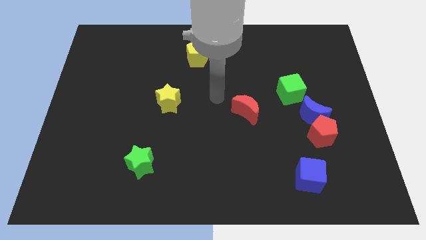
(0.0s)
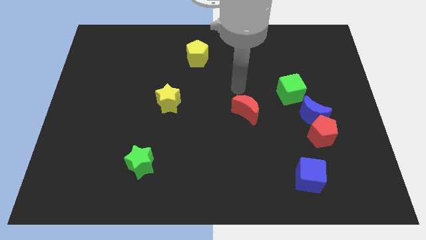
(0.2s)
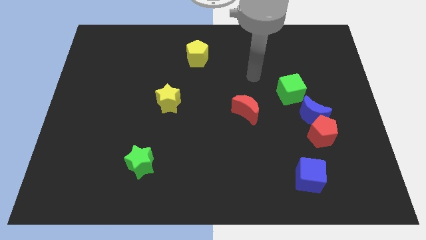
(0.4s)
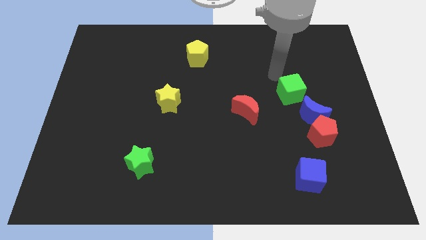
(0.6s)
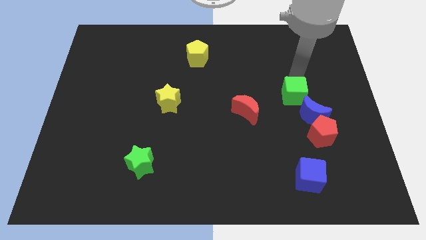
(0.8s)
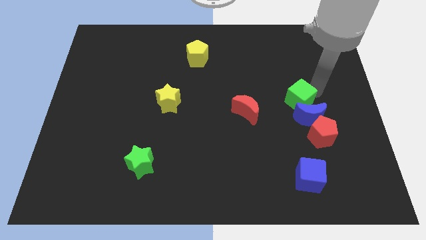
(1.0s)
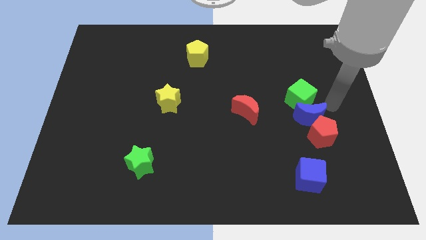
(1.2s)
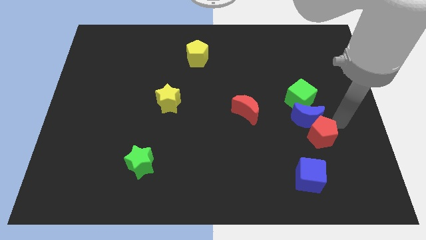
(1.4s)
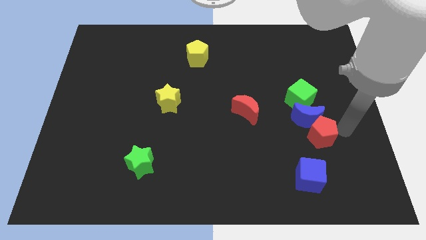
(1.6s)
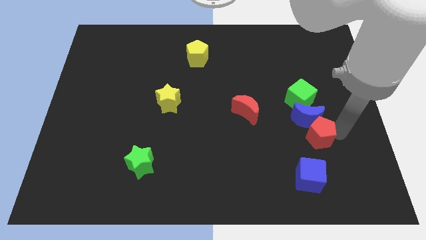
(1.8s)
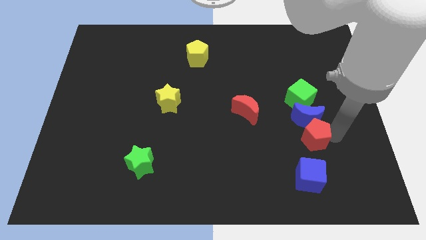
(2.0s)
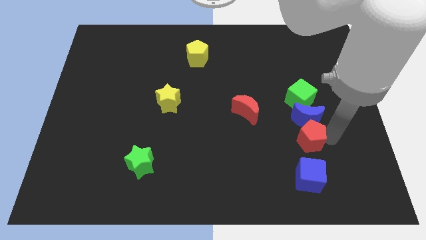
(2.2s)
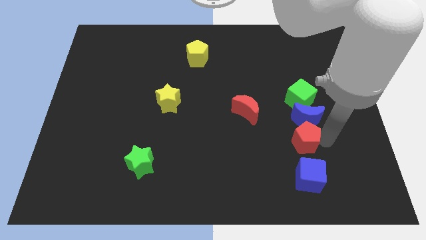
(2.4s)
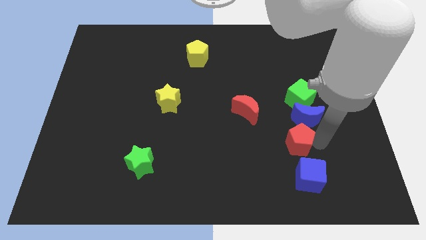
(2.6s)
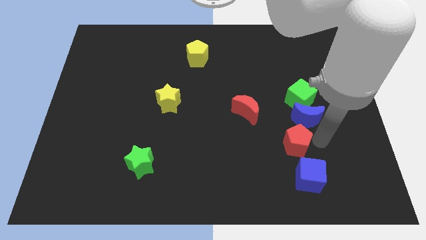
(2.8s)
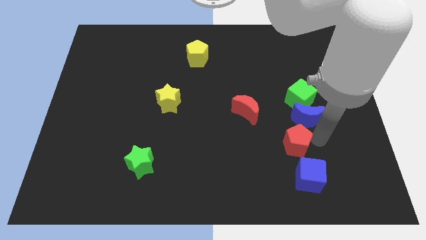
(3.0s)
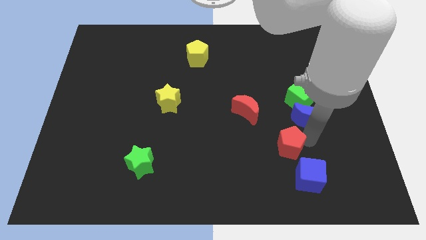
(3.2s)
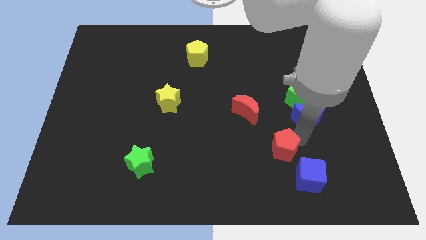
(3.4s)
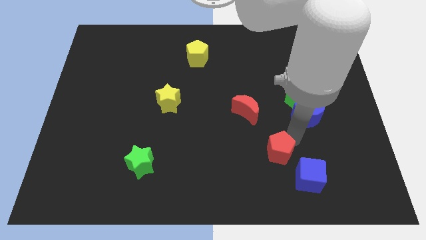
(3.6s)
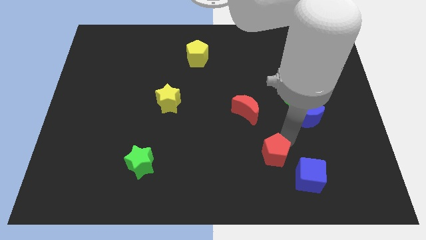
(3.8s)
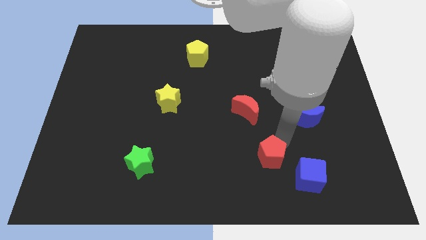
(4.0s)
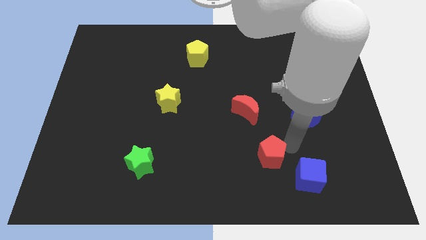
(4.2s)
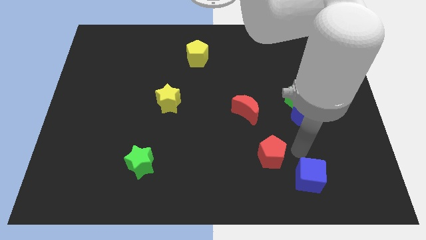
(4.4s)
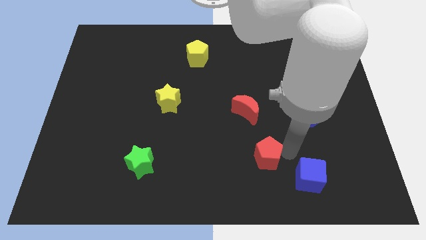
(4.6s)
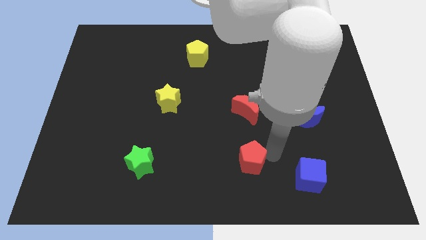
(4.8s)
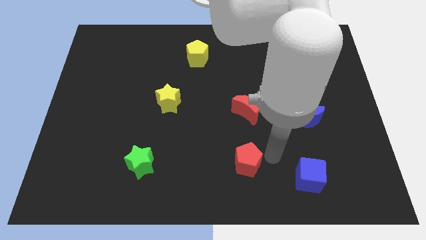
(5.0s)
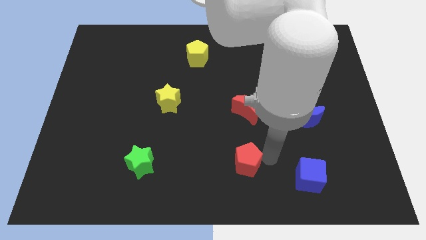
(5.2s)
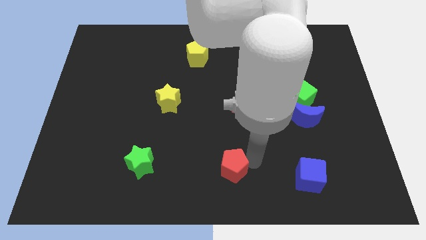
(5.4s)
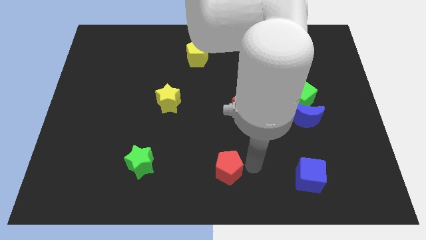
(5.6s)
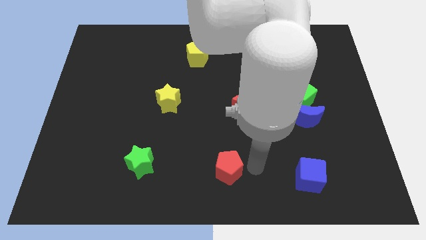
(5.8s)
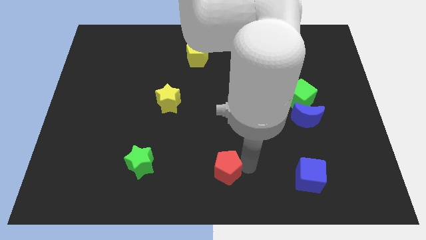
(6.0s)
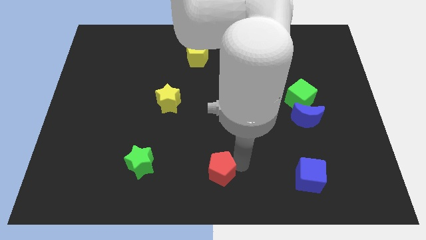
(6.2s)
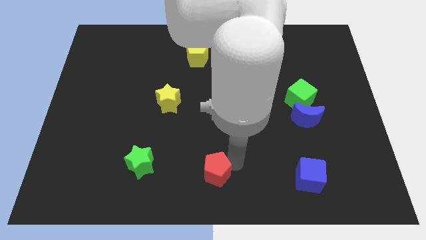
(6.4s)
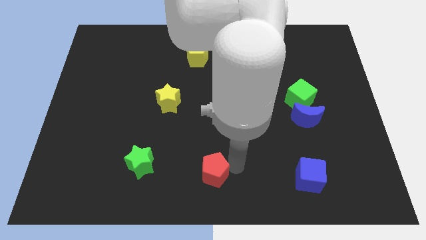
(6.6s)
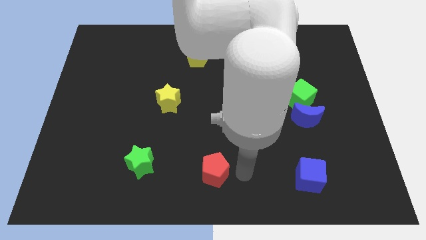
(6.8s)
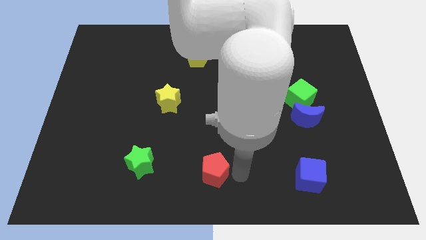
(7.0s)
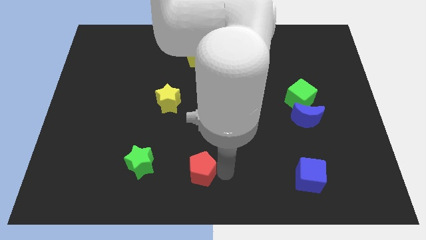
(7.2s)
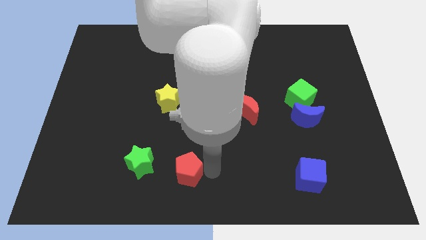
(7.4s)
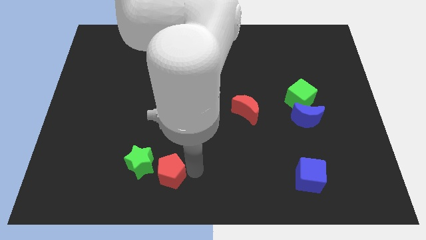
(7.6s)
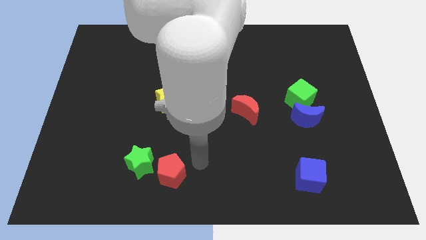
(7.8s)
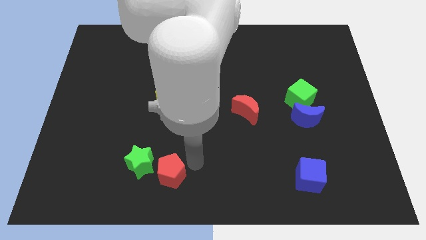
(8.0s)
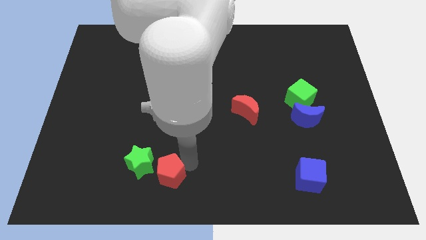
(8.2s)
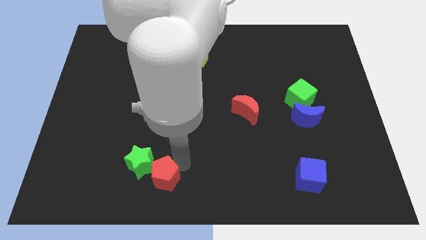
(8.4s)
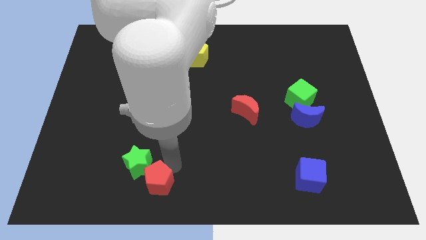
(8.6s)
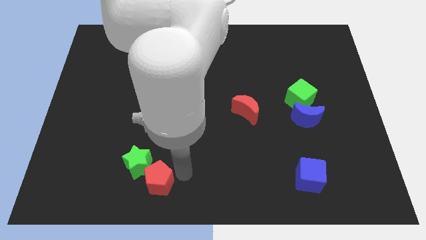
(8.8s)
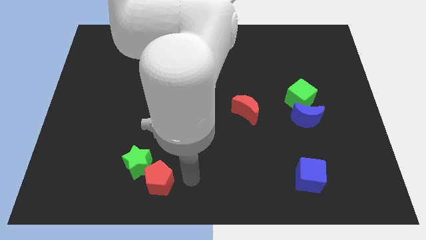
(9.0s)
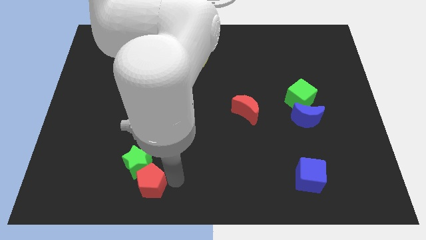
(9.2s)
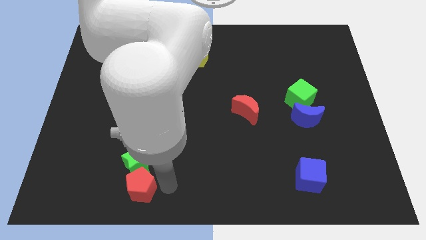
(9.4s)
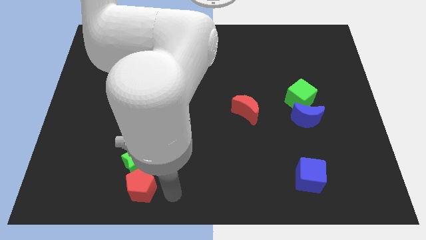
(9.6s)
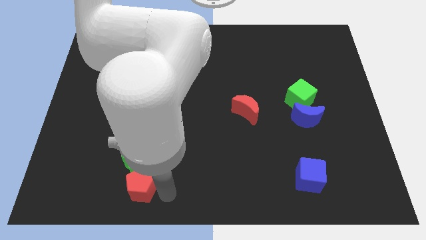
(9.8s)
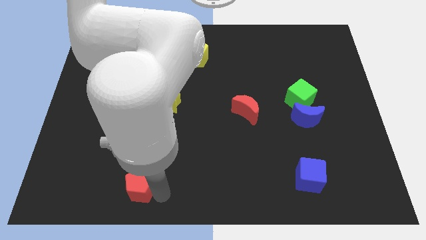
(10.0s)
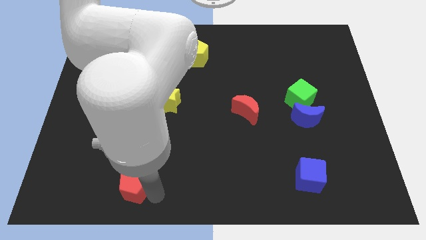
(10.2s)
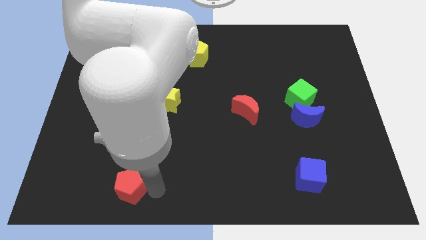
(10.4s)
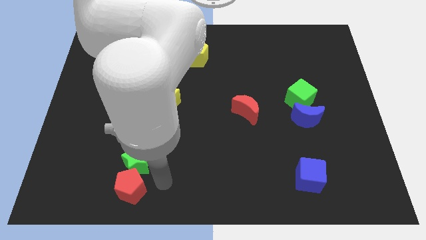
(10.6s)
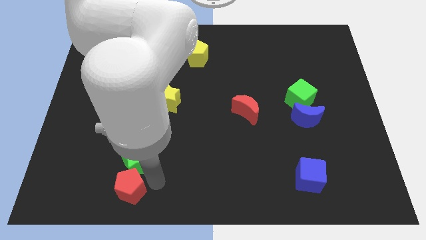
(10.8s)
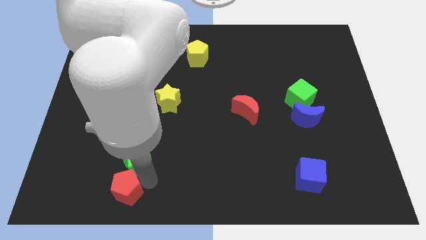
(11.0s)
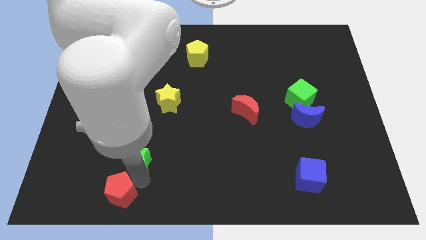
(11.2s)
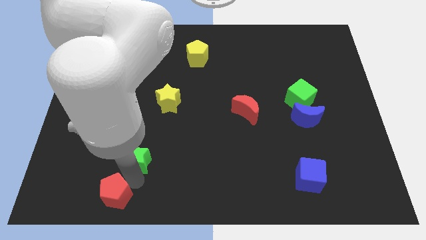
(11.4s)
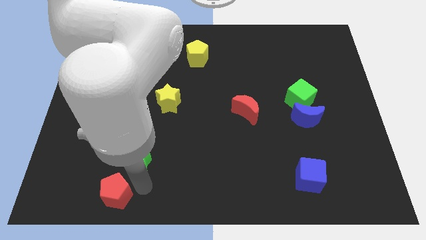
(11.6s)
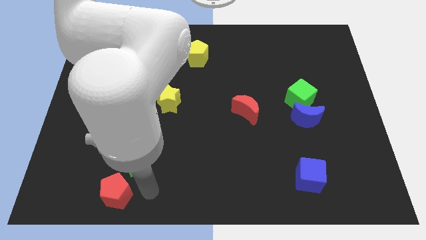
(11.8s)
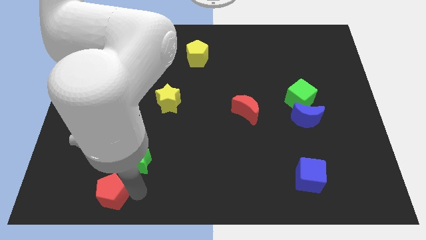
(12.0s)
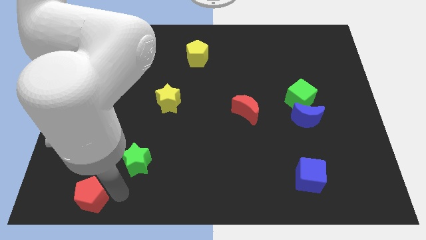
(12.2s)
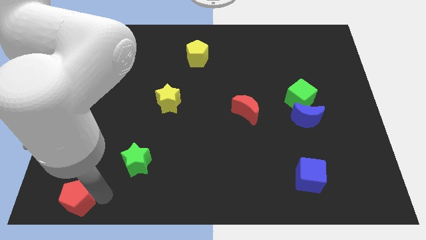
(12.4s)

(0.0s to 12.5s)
put the red pentagon to the bottom left of the board

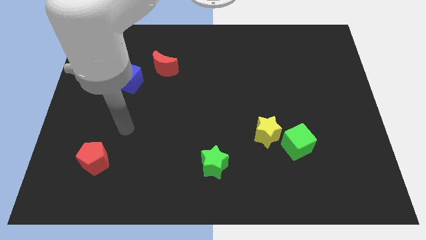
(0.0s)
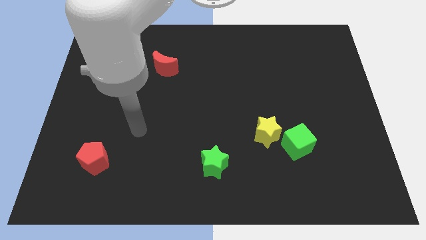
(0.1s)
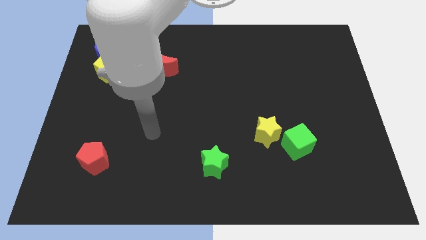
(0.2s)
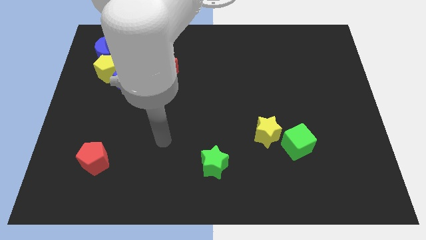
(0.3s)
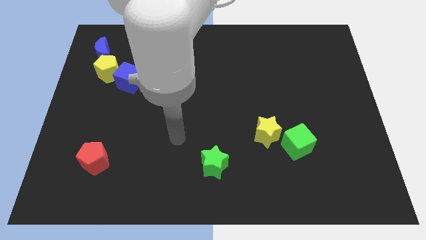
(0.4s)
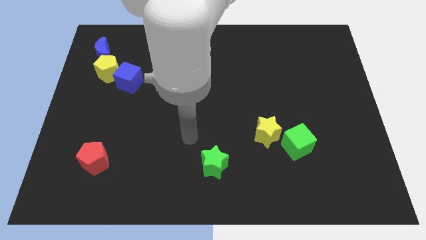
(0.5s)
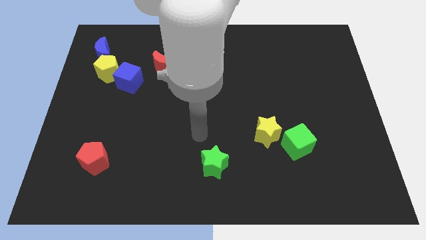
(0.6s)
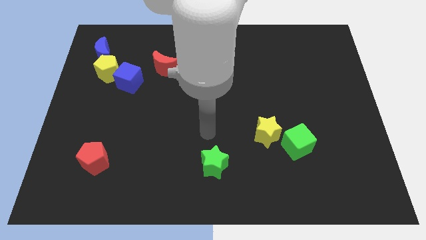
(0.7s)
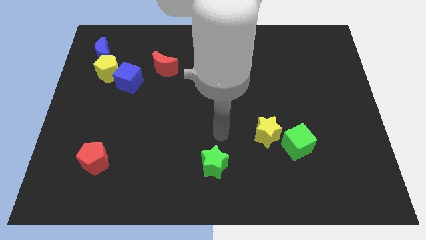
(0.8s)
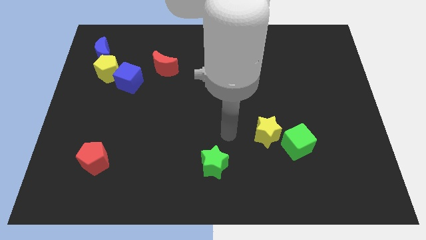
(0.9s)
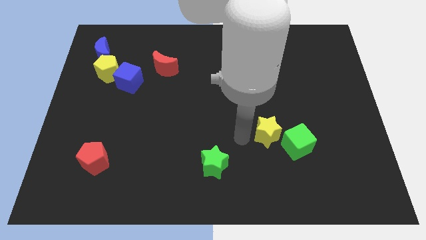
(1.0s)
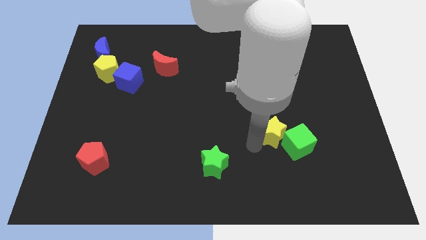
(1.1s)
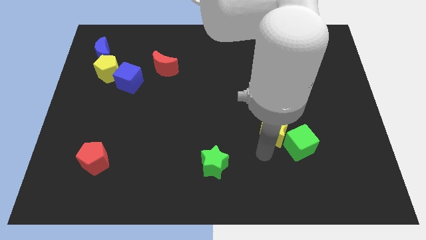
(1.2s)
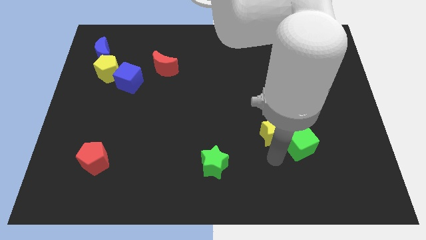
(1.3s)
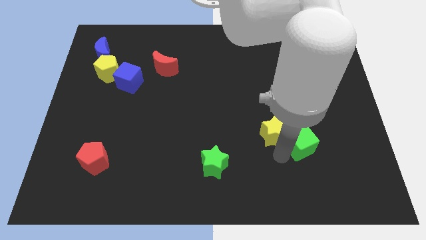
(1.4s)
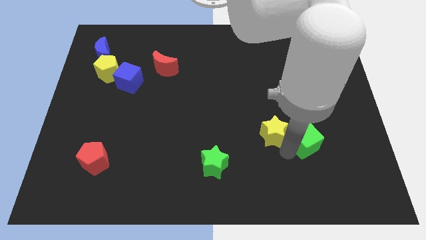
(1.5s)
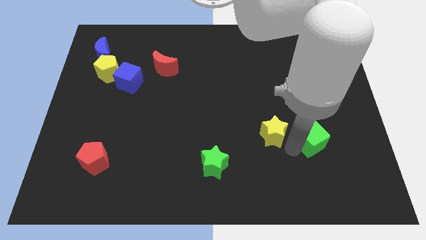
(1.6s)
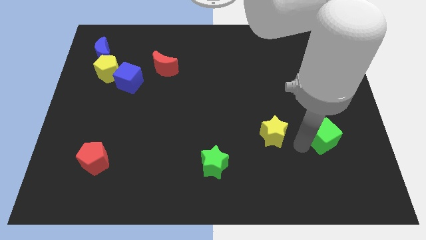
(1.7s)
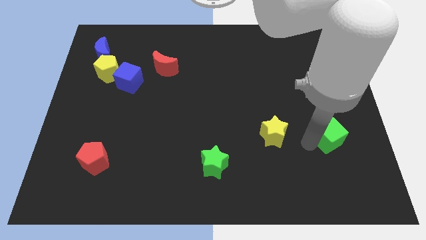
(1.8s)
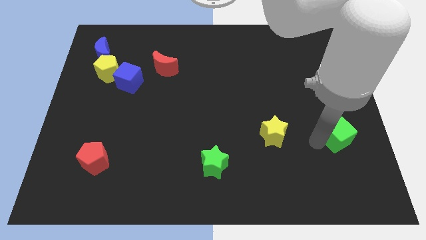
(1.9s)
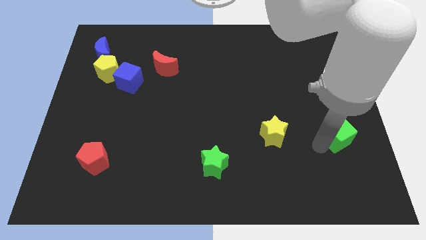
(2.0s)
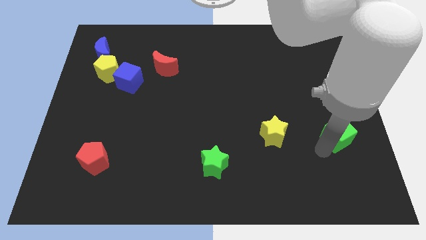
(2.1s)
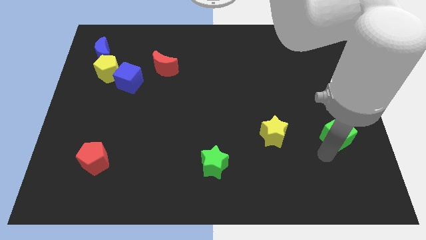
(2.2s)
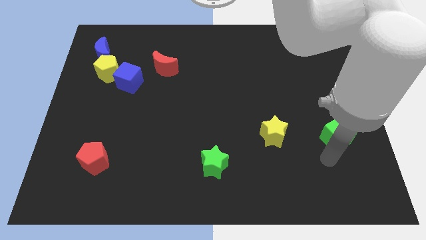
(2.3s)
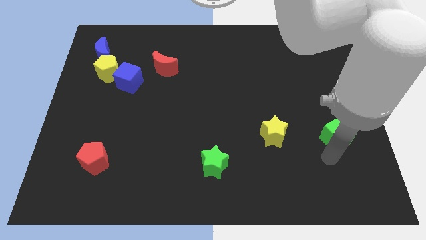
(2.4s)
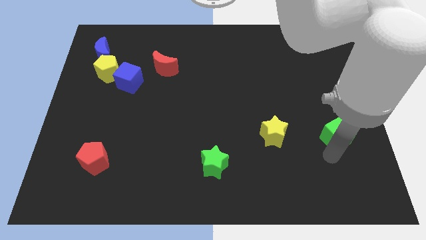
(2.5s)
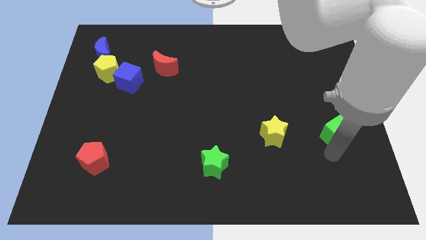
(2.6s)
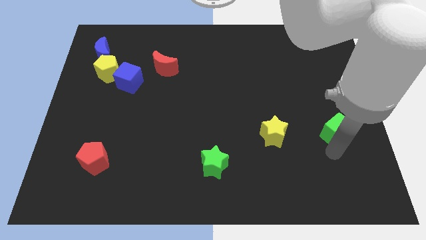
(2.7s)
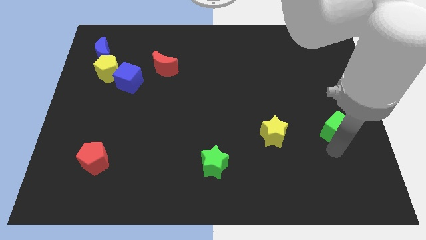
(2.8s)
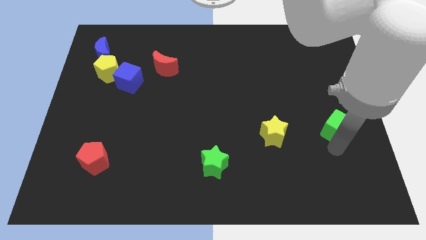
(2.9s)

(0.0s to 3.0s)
put the green cube to the right side of the board
